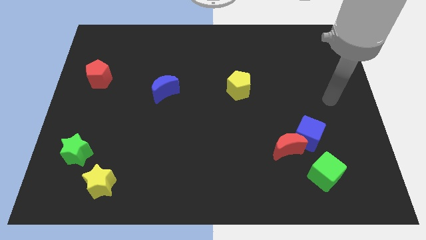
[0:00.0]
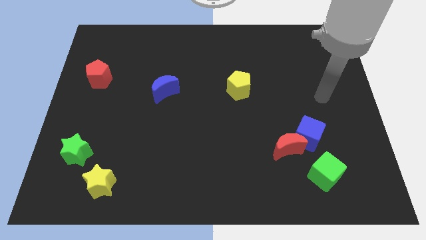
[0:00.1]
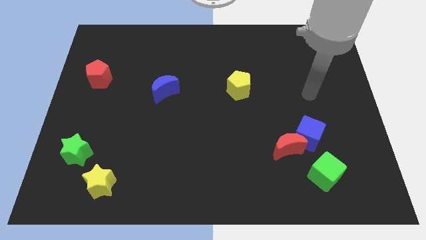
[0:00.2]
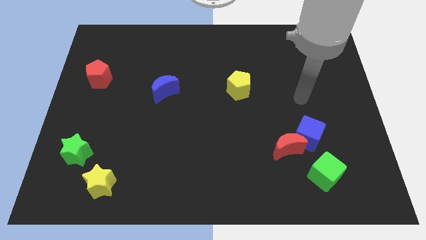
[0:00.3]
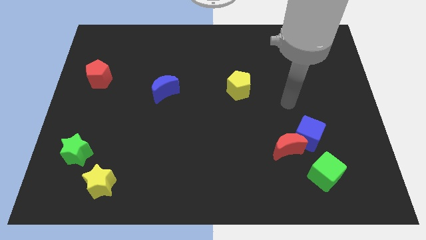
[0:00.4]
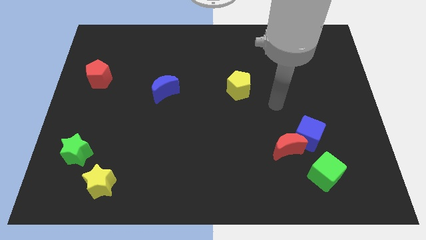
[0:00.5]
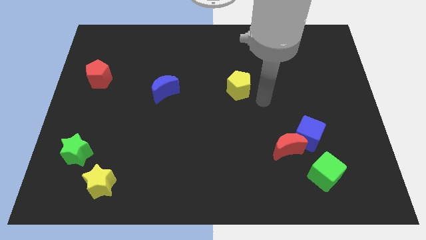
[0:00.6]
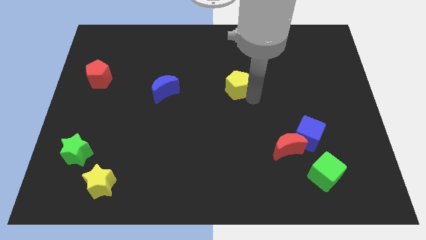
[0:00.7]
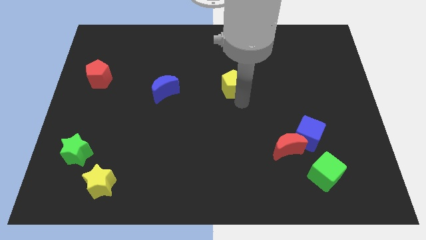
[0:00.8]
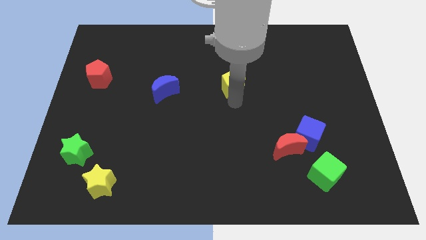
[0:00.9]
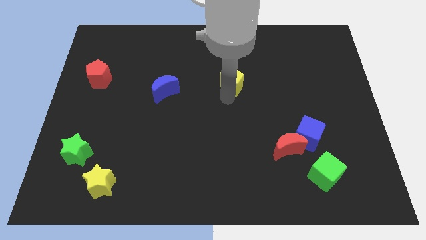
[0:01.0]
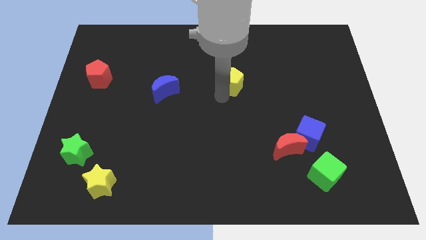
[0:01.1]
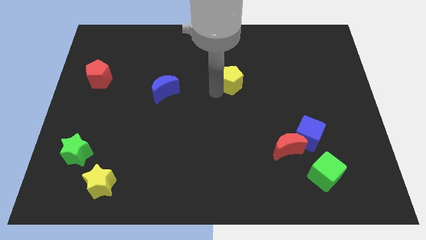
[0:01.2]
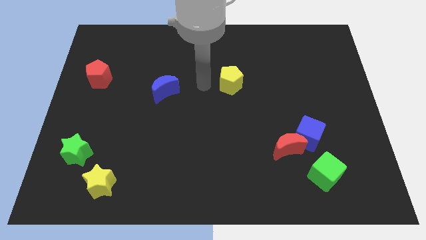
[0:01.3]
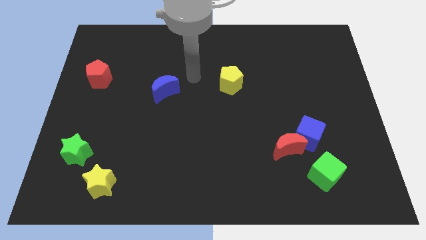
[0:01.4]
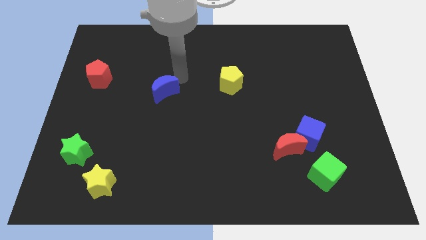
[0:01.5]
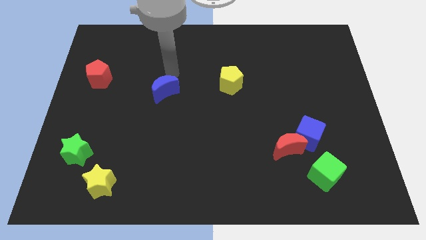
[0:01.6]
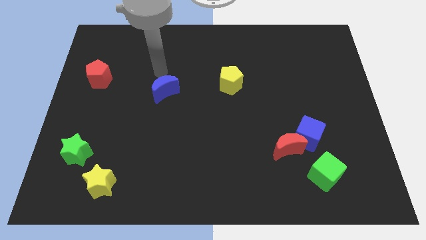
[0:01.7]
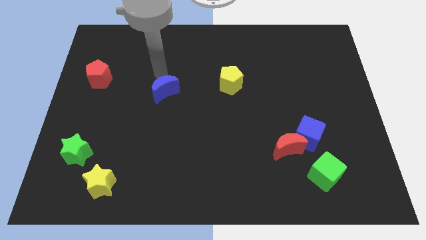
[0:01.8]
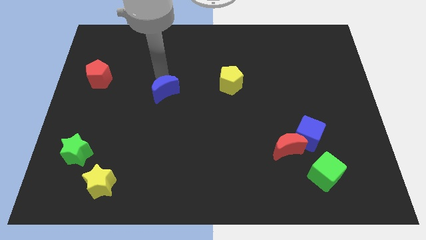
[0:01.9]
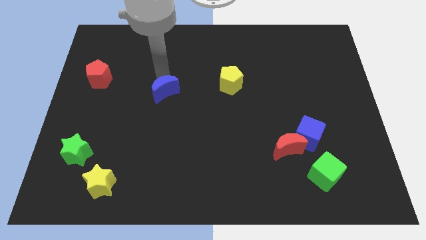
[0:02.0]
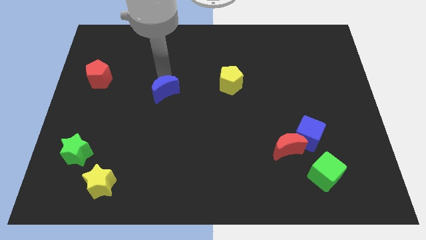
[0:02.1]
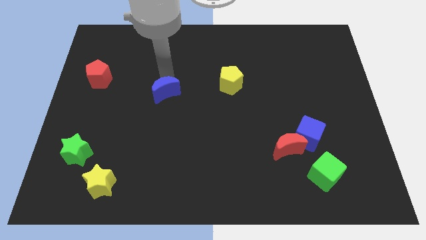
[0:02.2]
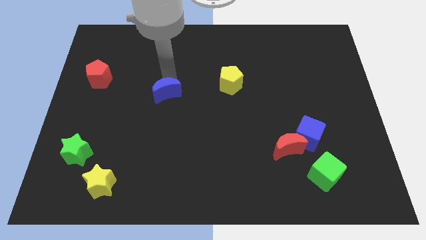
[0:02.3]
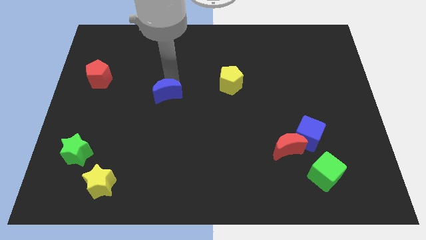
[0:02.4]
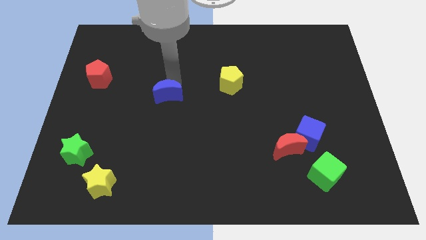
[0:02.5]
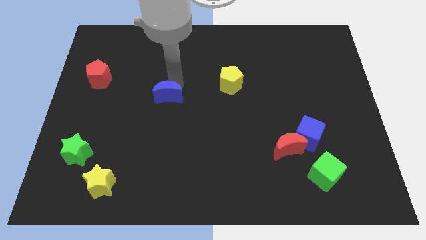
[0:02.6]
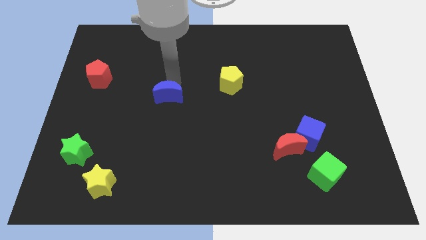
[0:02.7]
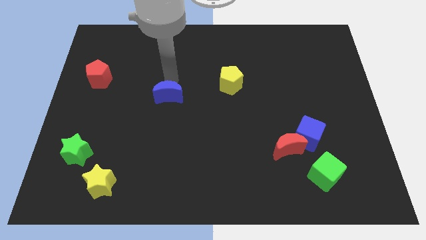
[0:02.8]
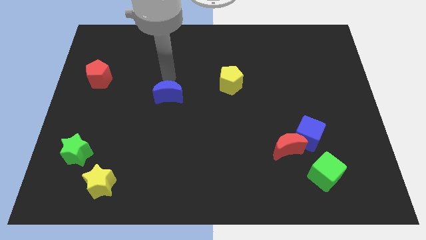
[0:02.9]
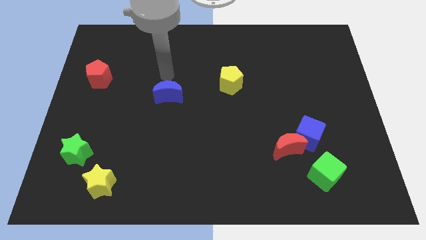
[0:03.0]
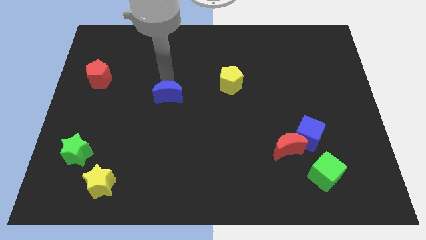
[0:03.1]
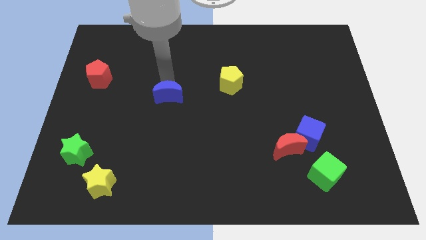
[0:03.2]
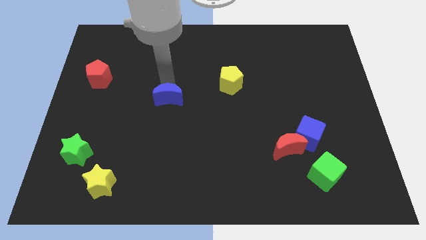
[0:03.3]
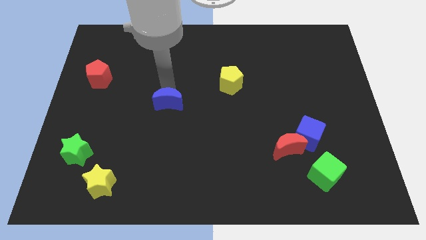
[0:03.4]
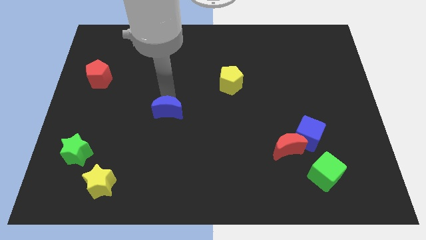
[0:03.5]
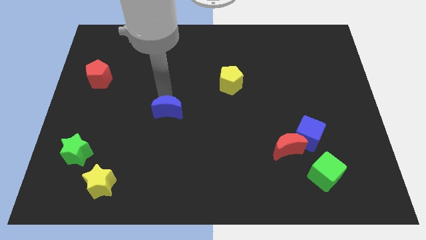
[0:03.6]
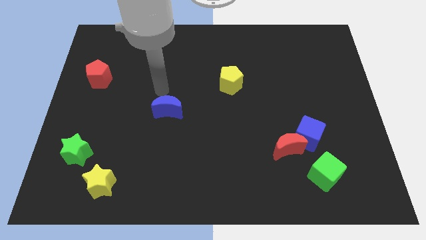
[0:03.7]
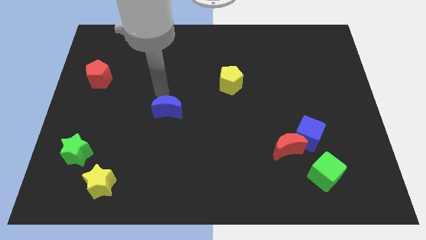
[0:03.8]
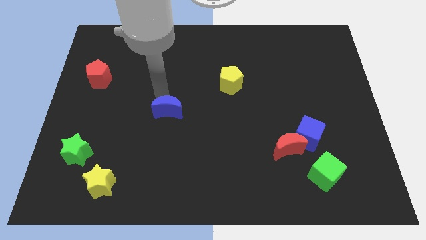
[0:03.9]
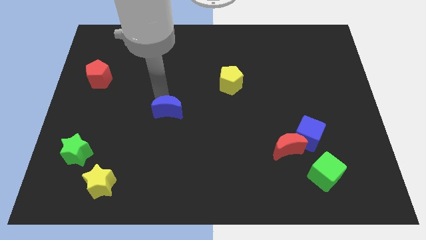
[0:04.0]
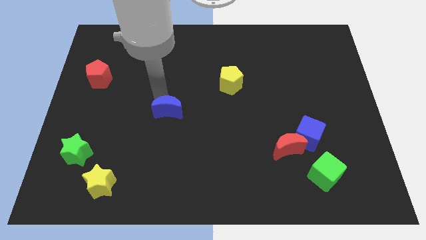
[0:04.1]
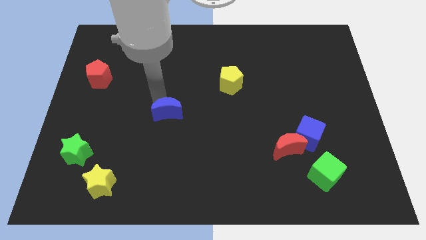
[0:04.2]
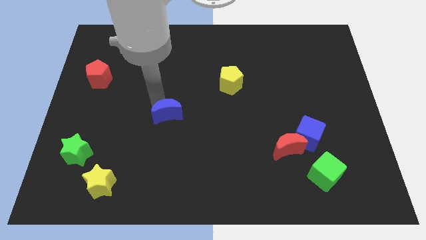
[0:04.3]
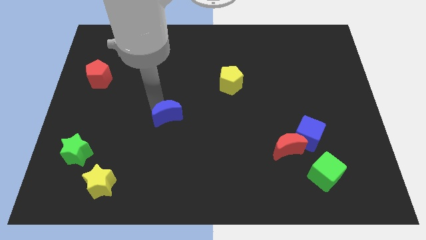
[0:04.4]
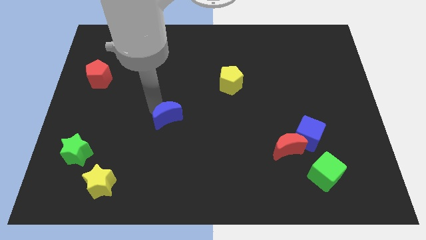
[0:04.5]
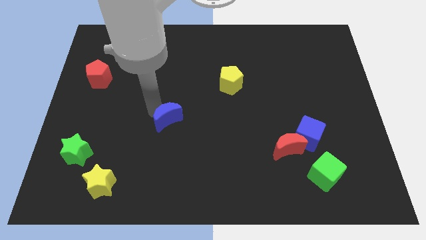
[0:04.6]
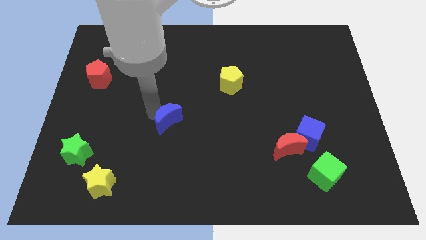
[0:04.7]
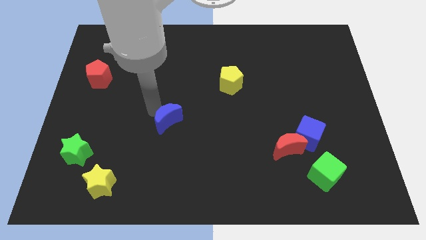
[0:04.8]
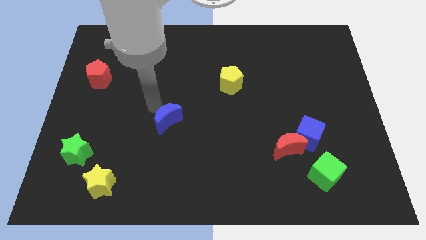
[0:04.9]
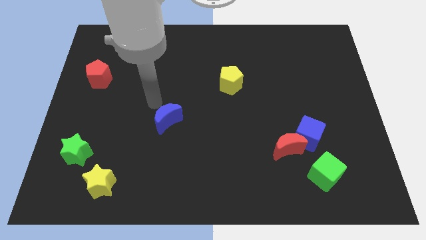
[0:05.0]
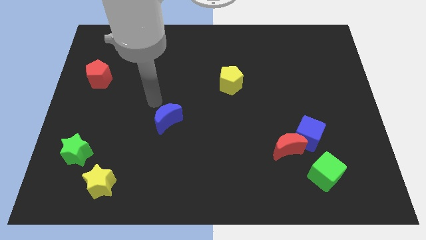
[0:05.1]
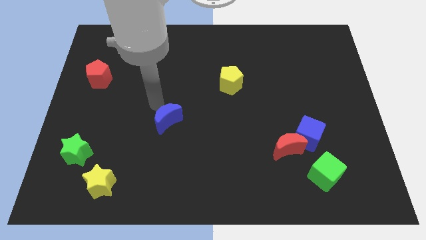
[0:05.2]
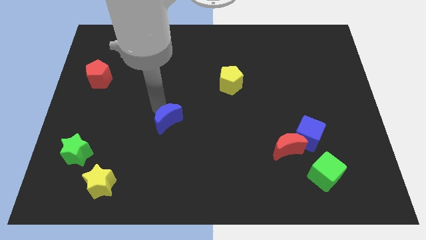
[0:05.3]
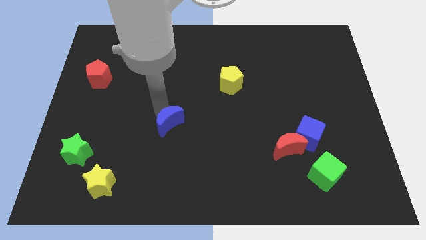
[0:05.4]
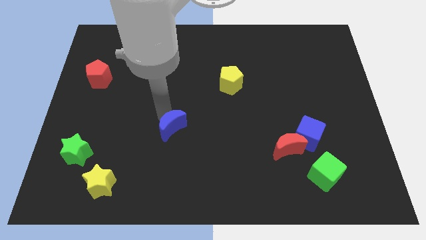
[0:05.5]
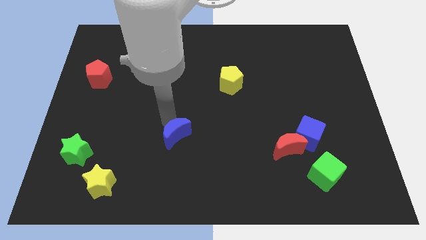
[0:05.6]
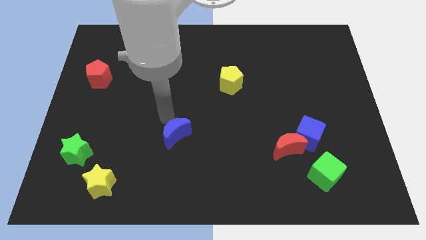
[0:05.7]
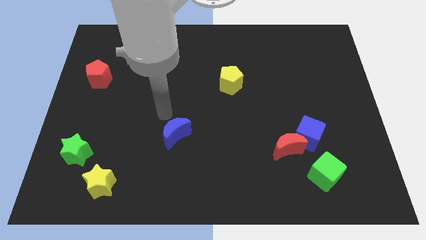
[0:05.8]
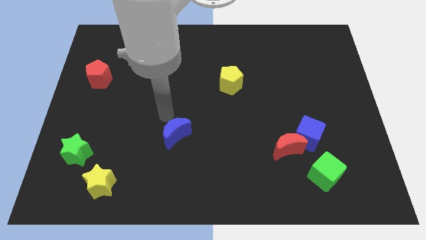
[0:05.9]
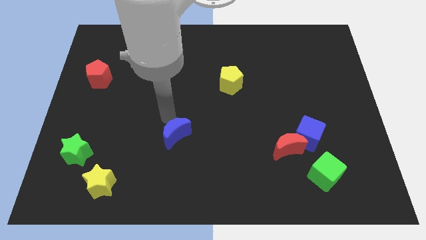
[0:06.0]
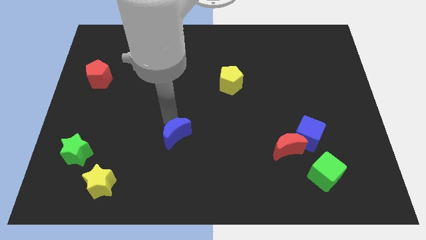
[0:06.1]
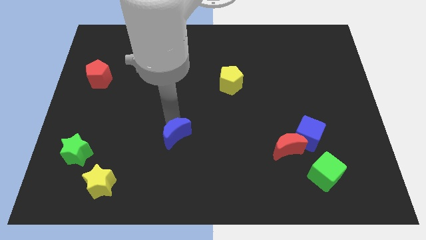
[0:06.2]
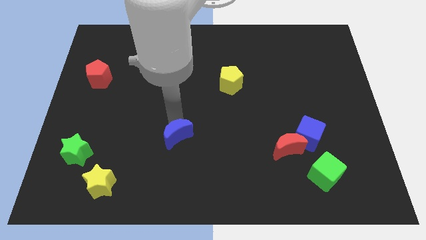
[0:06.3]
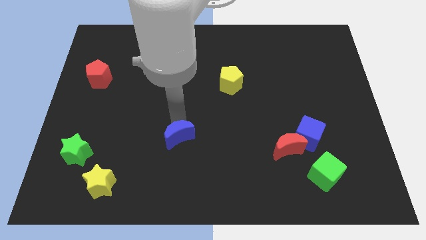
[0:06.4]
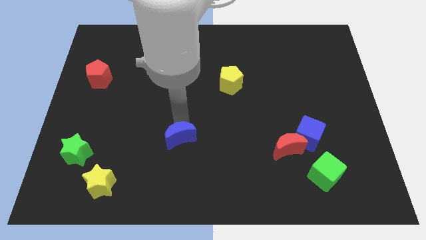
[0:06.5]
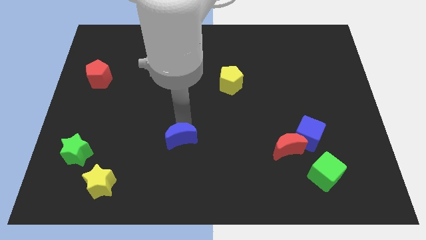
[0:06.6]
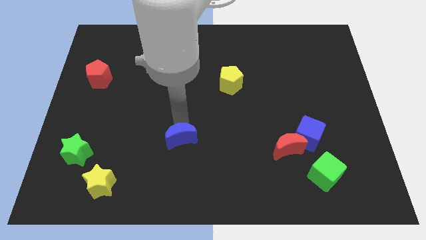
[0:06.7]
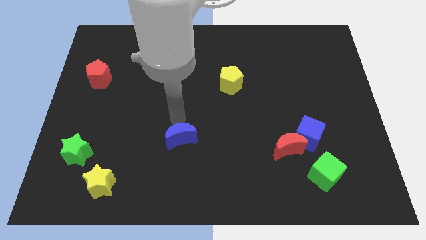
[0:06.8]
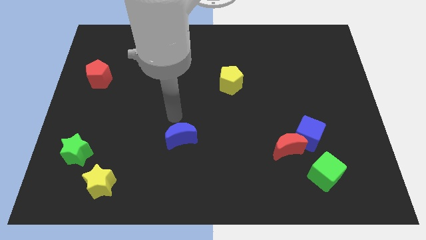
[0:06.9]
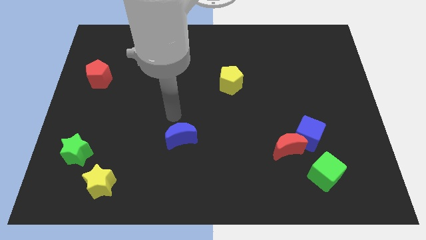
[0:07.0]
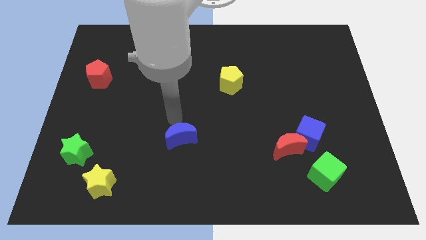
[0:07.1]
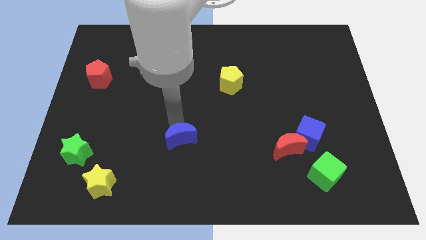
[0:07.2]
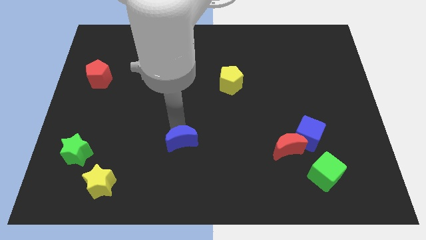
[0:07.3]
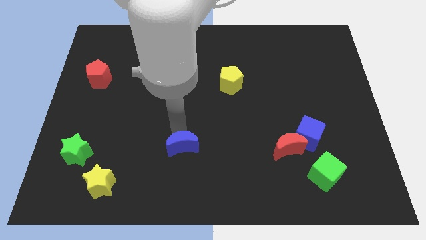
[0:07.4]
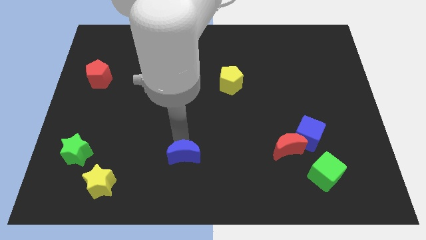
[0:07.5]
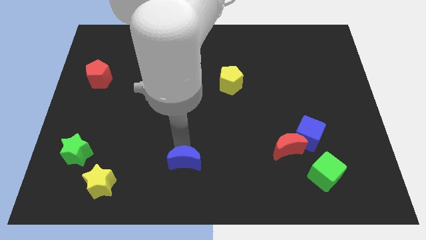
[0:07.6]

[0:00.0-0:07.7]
push the blue moon to the bottom
